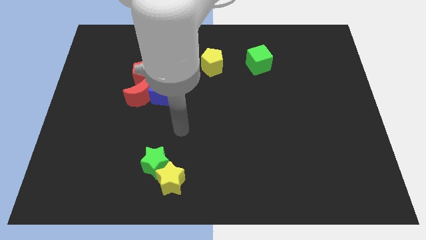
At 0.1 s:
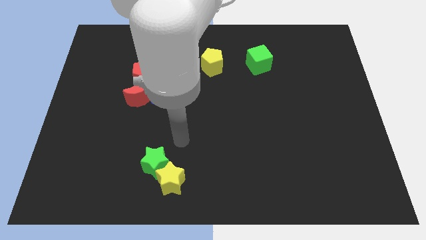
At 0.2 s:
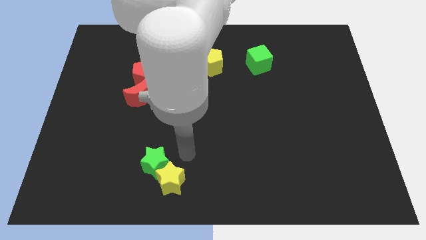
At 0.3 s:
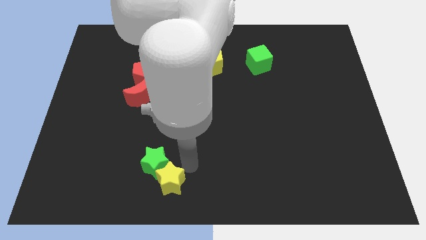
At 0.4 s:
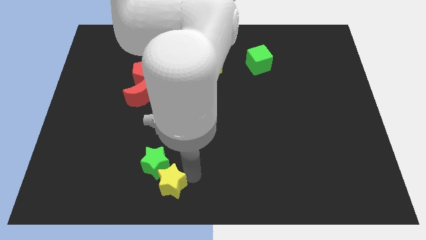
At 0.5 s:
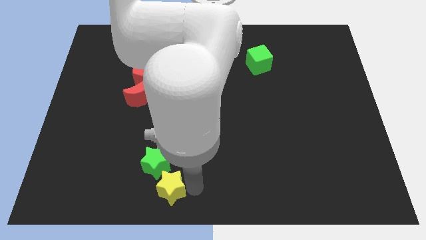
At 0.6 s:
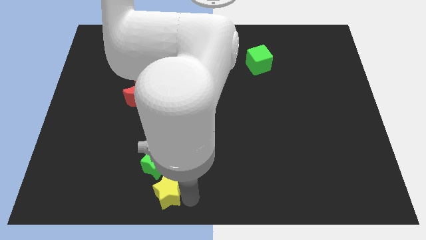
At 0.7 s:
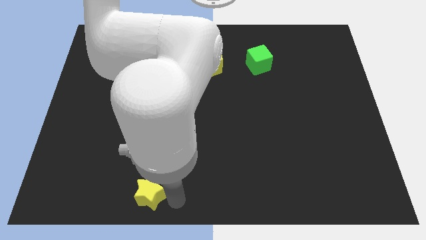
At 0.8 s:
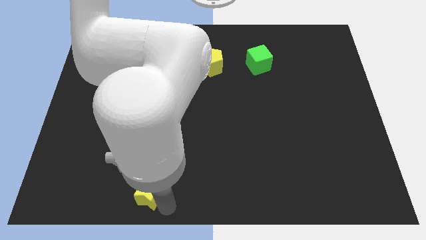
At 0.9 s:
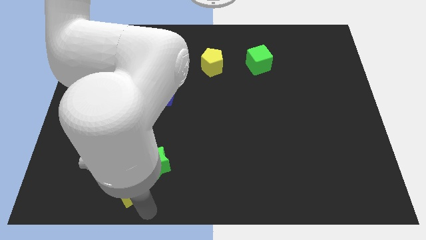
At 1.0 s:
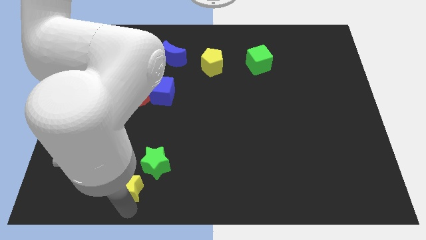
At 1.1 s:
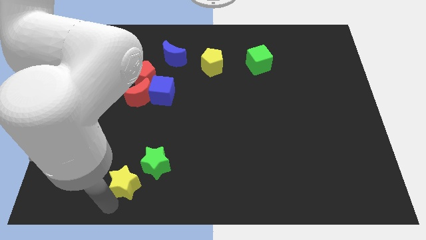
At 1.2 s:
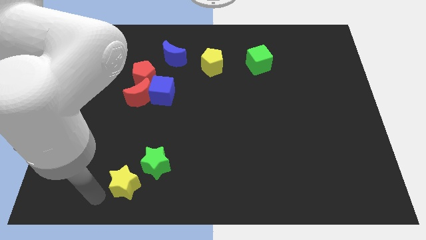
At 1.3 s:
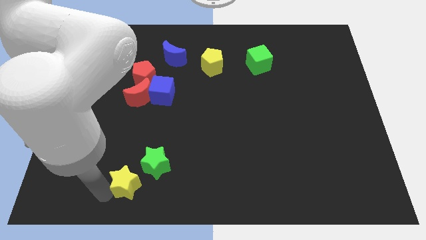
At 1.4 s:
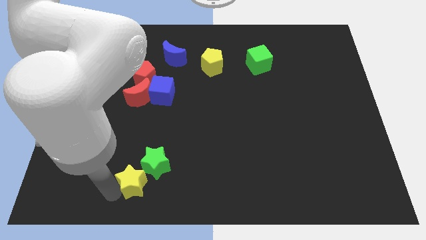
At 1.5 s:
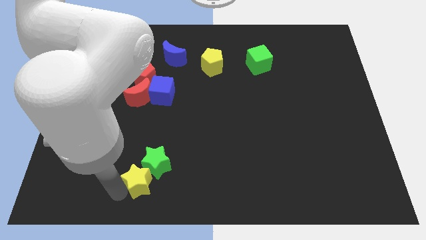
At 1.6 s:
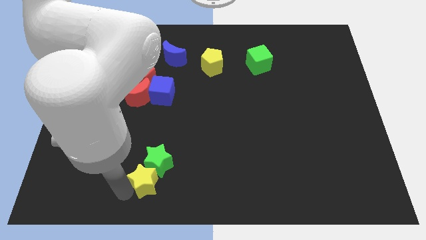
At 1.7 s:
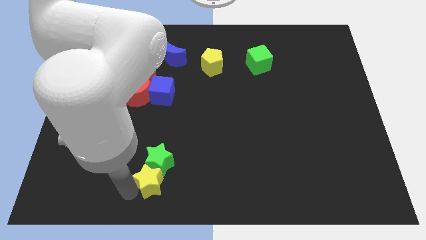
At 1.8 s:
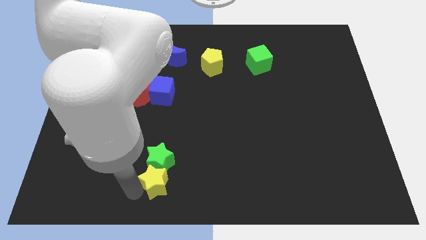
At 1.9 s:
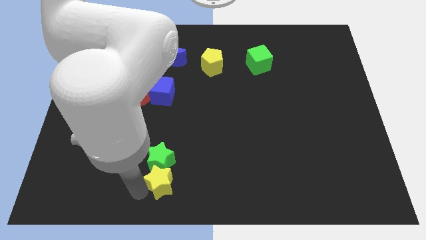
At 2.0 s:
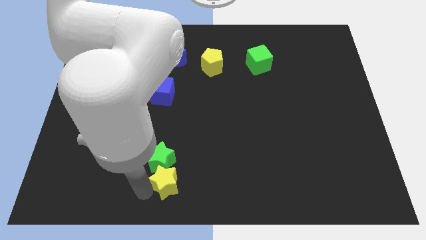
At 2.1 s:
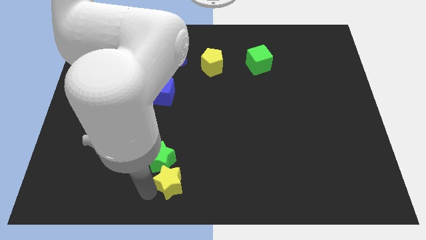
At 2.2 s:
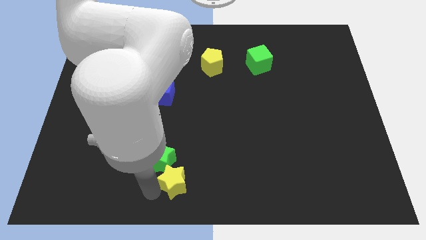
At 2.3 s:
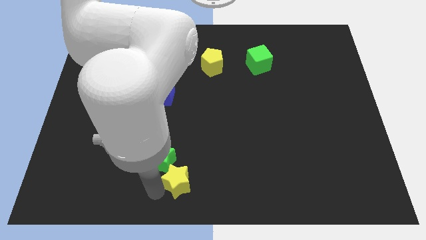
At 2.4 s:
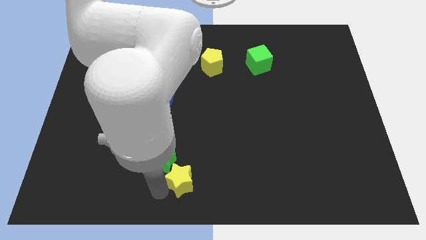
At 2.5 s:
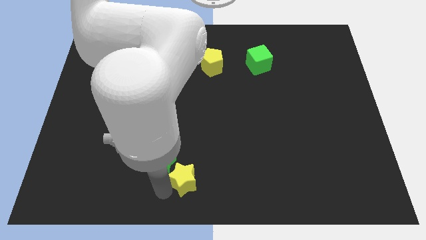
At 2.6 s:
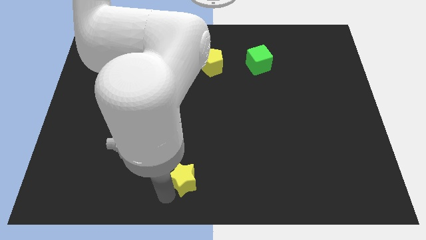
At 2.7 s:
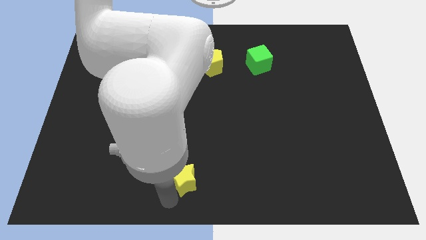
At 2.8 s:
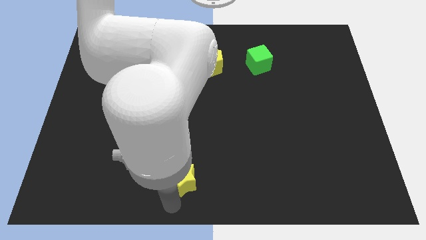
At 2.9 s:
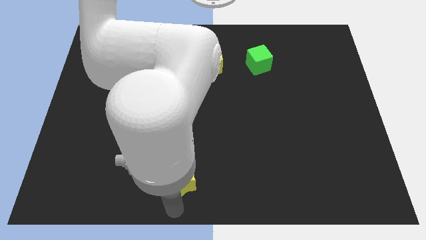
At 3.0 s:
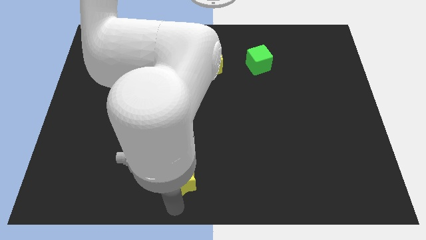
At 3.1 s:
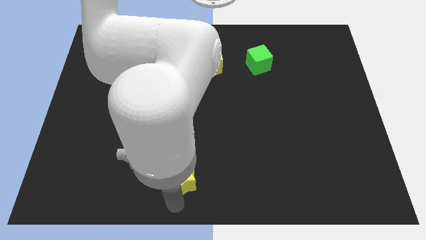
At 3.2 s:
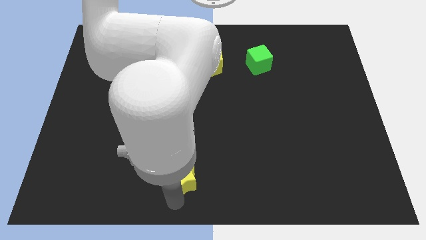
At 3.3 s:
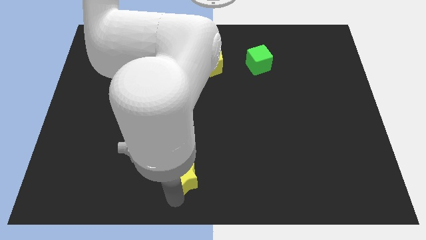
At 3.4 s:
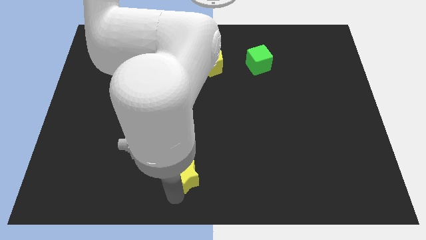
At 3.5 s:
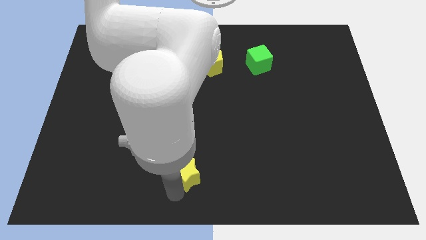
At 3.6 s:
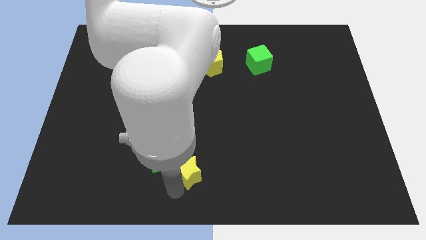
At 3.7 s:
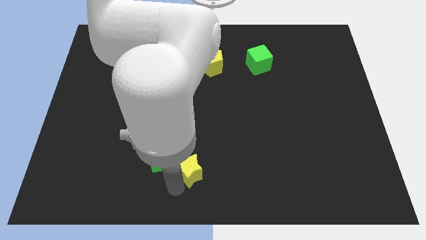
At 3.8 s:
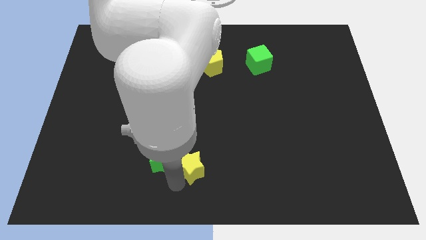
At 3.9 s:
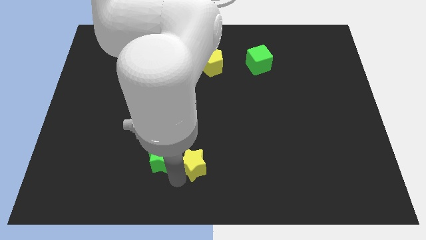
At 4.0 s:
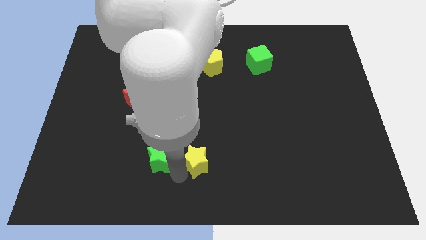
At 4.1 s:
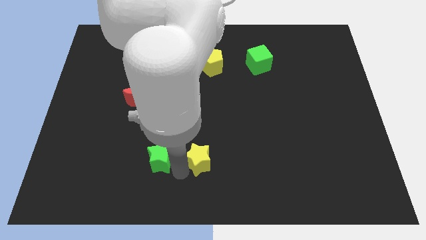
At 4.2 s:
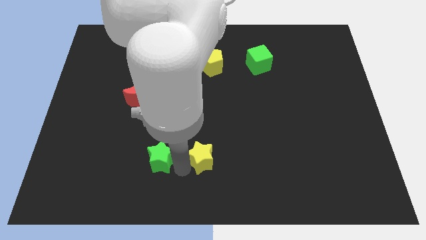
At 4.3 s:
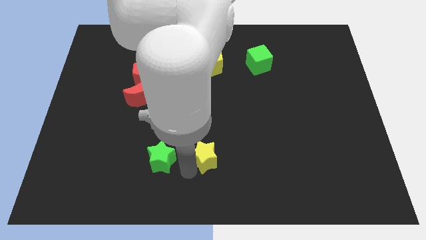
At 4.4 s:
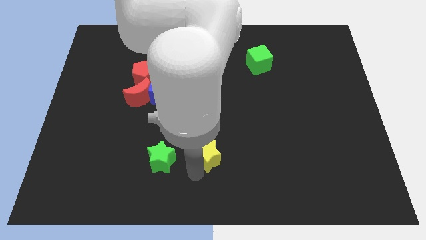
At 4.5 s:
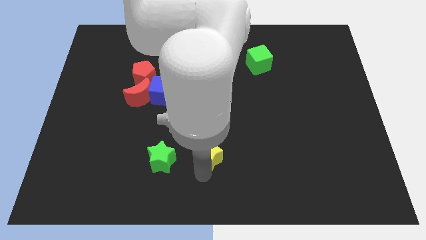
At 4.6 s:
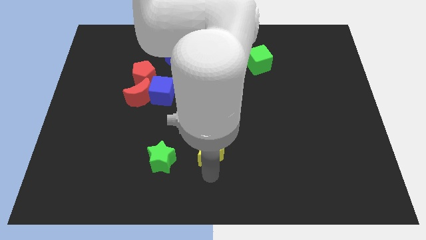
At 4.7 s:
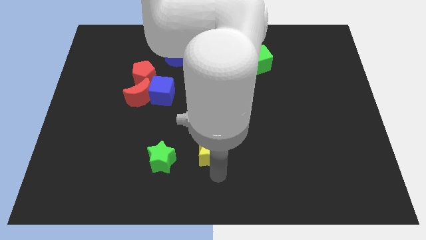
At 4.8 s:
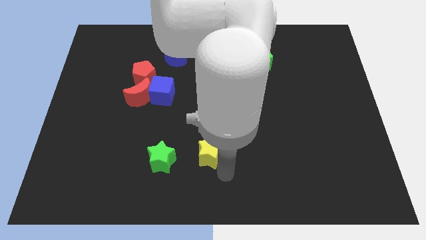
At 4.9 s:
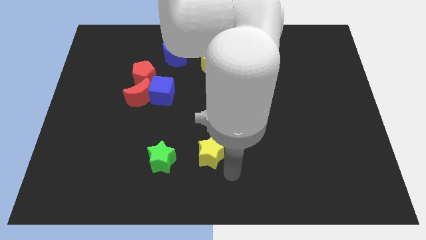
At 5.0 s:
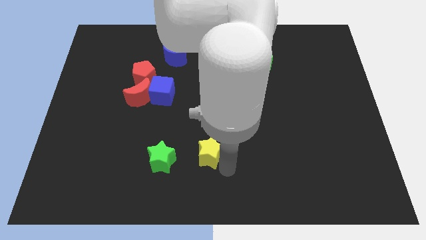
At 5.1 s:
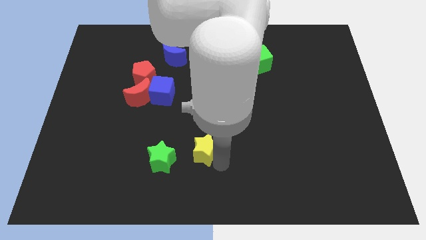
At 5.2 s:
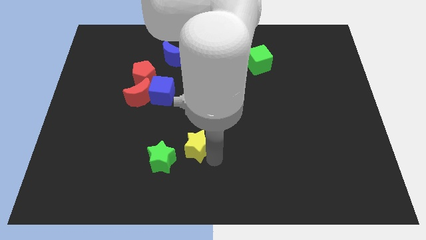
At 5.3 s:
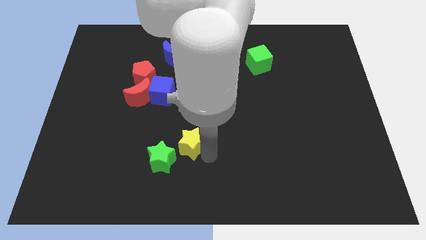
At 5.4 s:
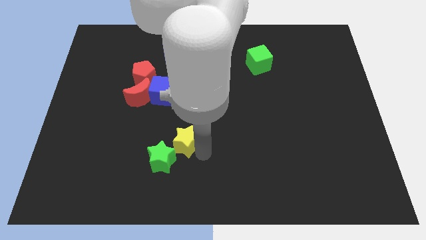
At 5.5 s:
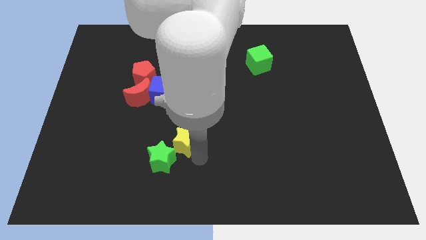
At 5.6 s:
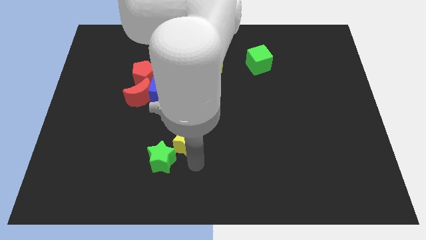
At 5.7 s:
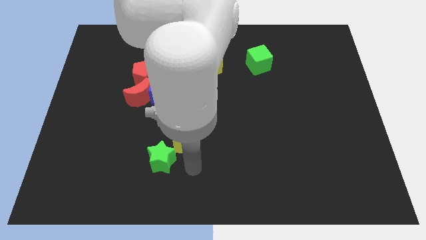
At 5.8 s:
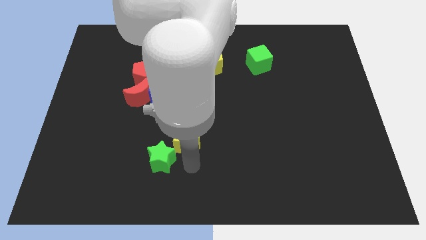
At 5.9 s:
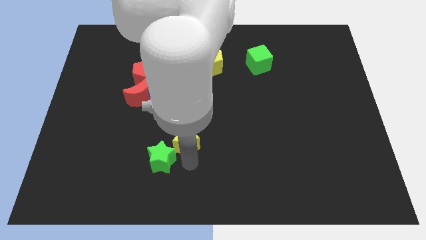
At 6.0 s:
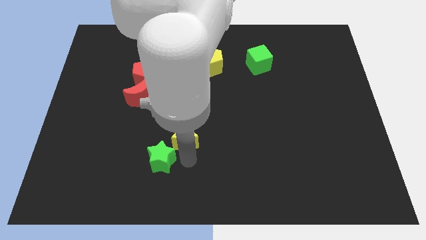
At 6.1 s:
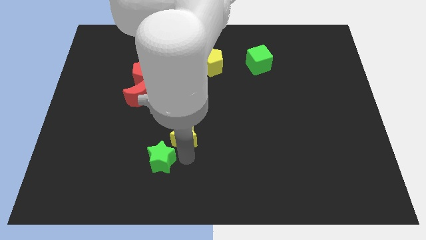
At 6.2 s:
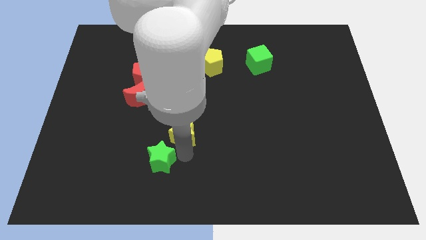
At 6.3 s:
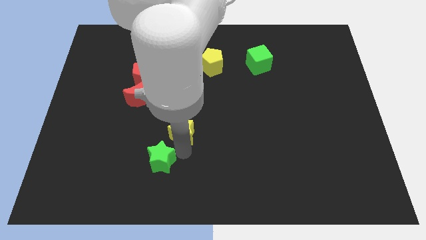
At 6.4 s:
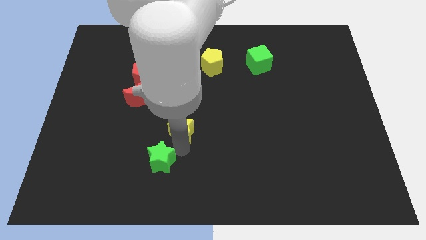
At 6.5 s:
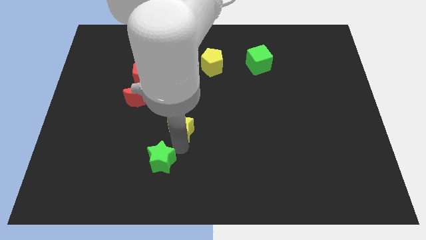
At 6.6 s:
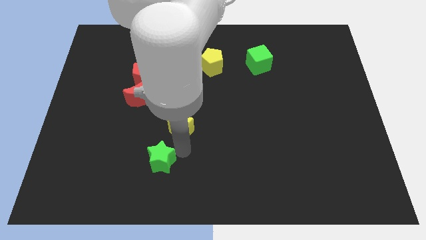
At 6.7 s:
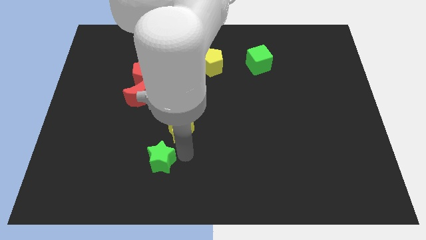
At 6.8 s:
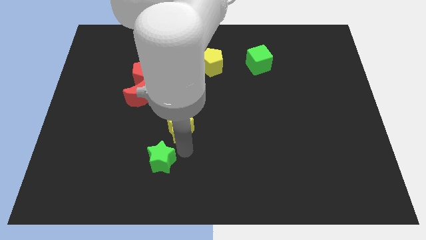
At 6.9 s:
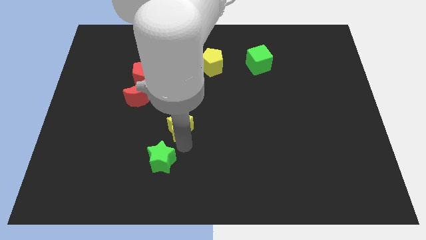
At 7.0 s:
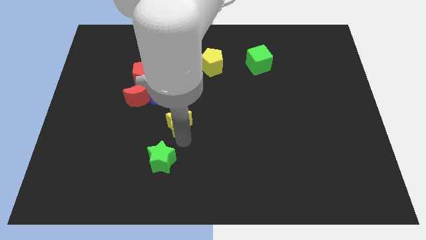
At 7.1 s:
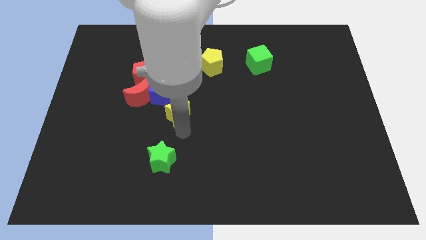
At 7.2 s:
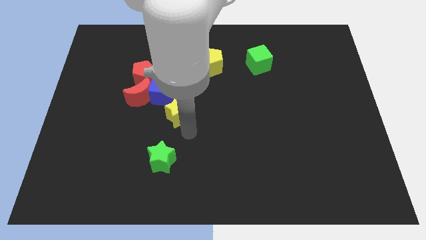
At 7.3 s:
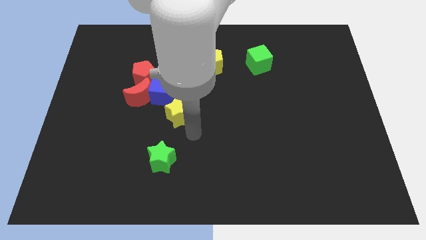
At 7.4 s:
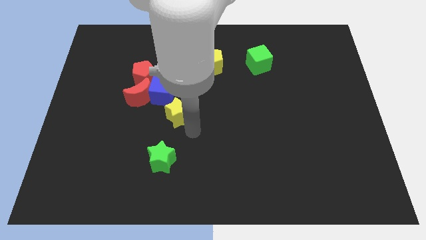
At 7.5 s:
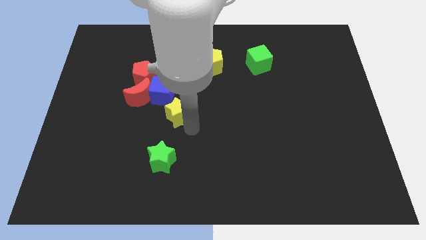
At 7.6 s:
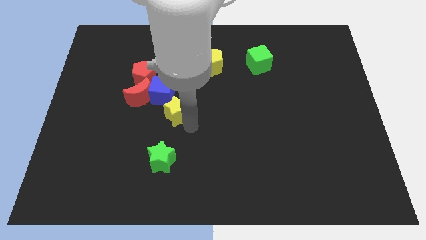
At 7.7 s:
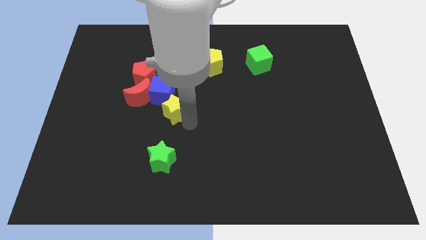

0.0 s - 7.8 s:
move the yellow star towards the blue cube
